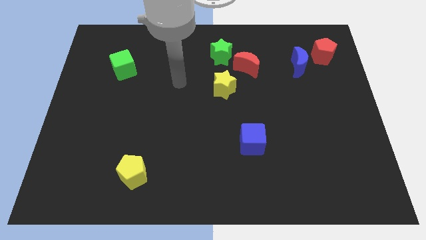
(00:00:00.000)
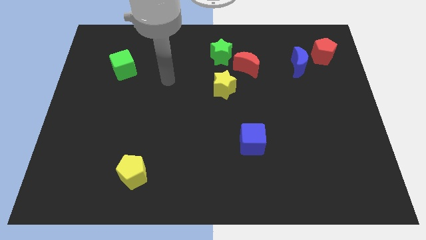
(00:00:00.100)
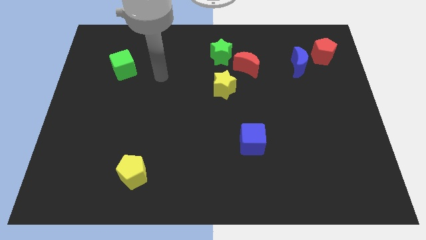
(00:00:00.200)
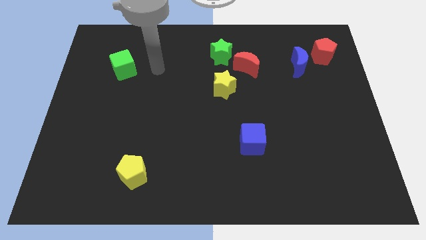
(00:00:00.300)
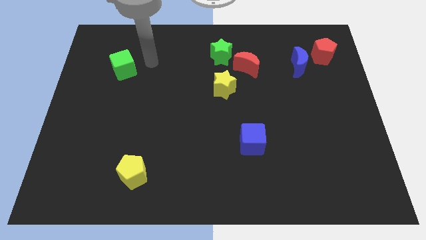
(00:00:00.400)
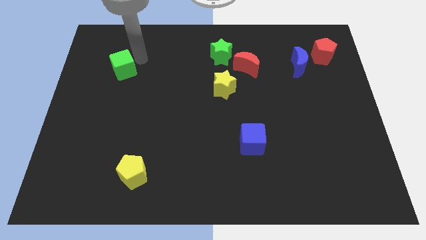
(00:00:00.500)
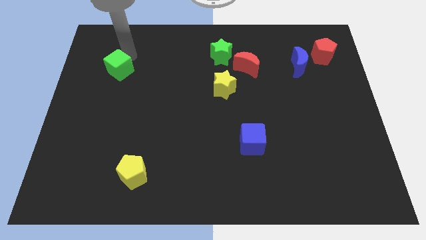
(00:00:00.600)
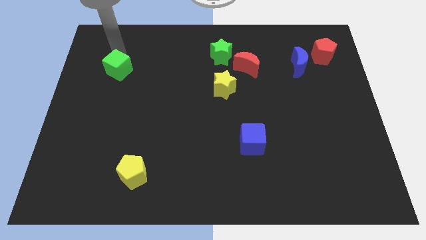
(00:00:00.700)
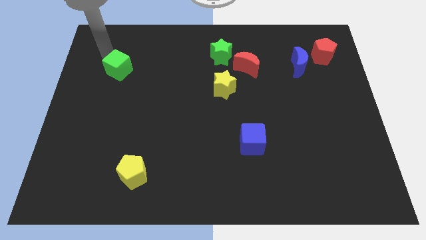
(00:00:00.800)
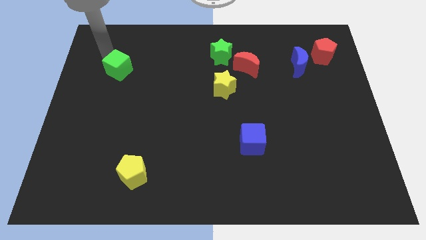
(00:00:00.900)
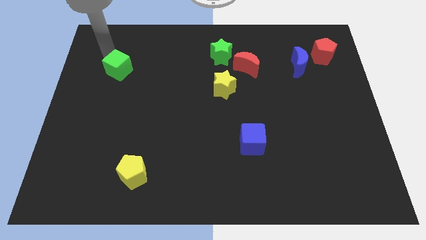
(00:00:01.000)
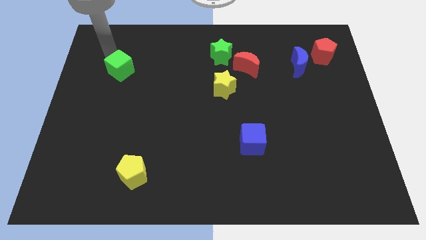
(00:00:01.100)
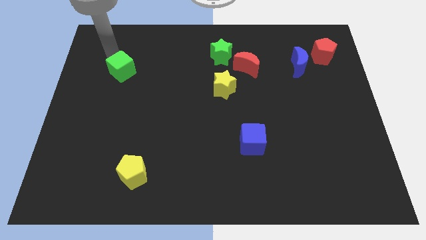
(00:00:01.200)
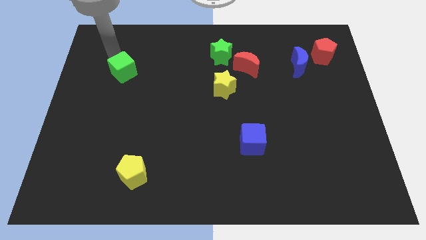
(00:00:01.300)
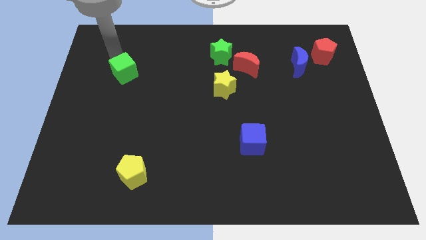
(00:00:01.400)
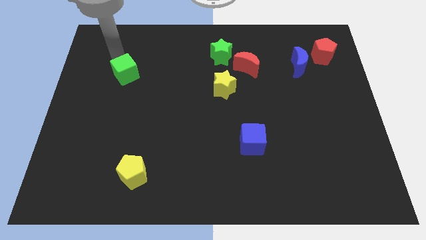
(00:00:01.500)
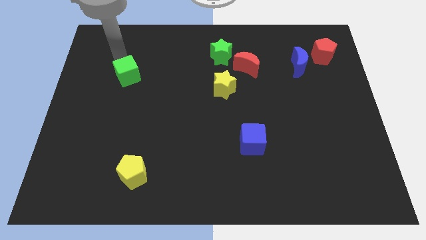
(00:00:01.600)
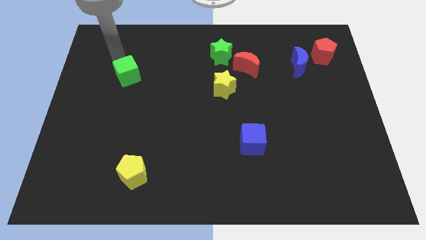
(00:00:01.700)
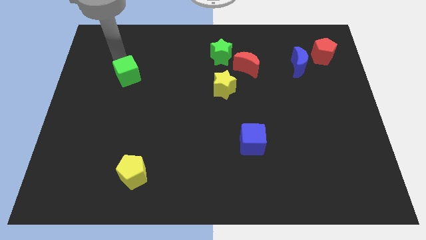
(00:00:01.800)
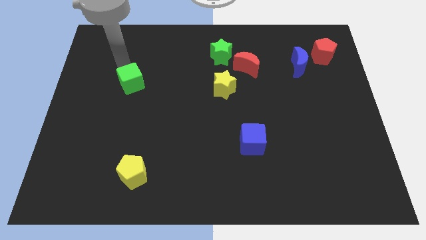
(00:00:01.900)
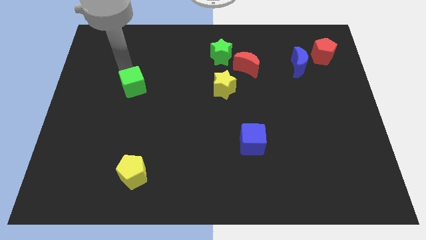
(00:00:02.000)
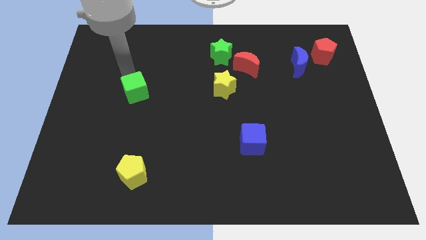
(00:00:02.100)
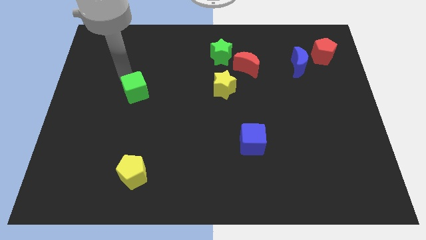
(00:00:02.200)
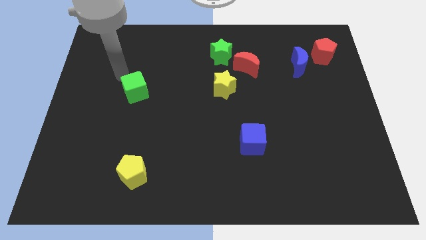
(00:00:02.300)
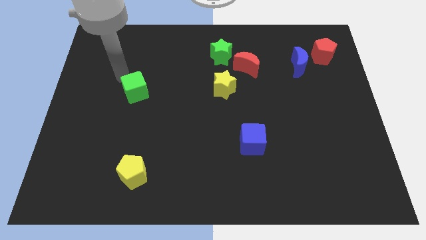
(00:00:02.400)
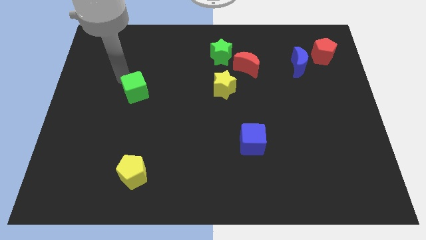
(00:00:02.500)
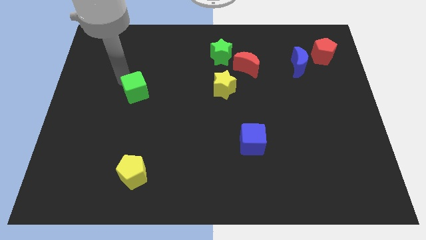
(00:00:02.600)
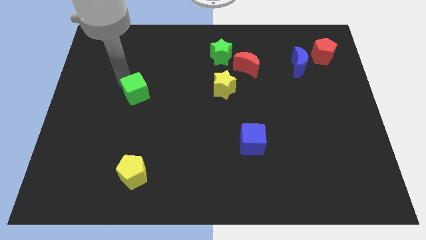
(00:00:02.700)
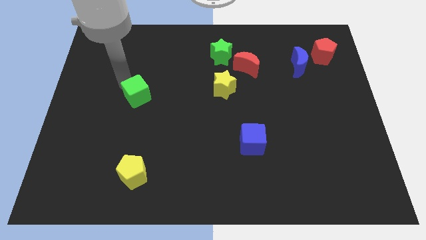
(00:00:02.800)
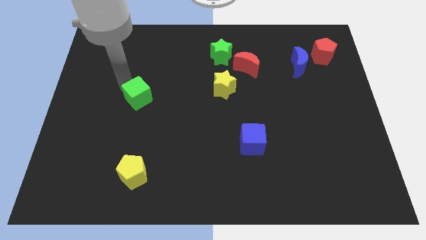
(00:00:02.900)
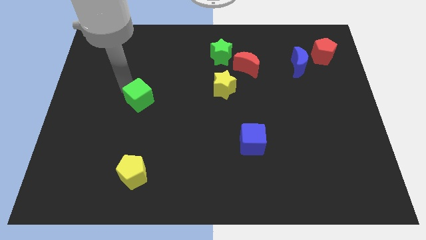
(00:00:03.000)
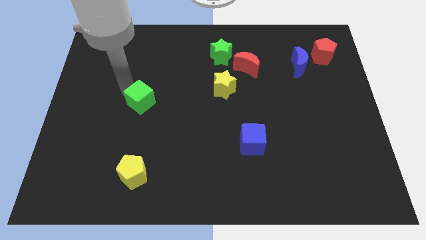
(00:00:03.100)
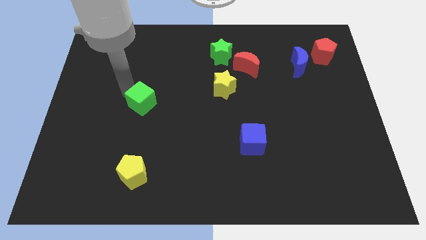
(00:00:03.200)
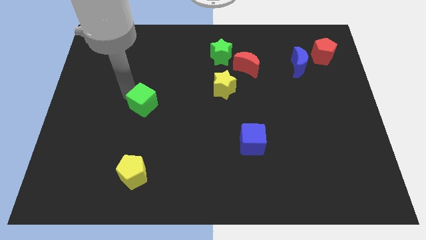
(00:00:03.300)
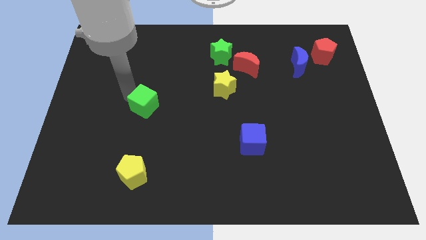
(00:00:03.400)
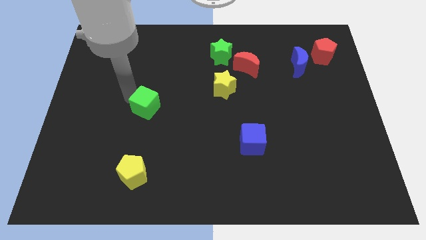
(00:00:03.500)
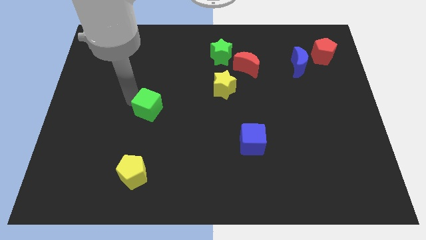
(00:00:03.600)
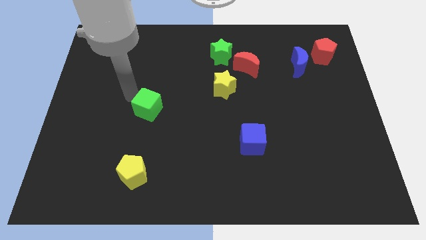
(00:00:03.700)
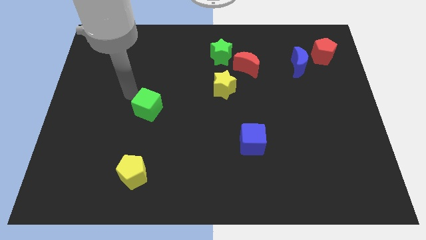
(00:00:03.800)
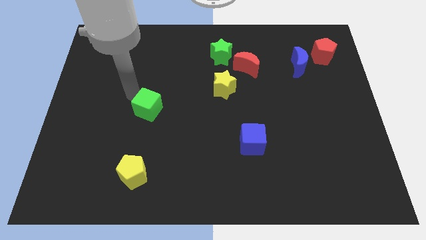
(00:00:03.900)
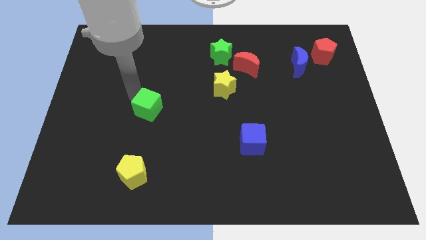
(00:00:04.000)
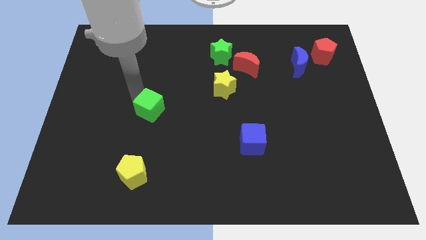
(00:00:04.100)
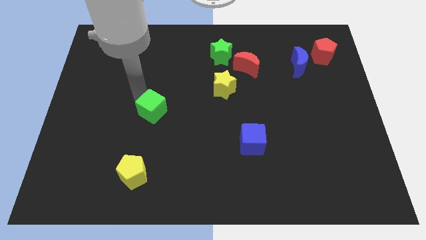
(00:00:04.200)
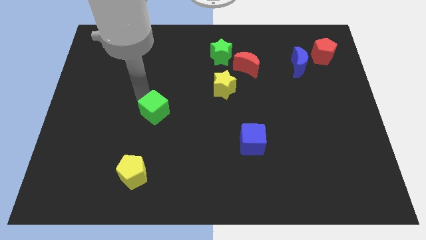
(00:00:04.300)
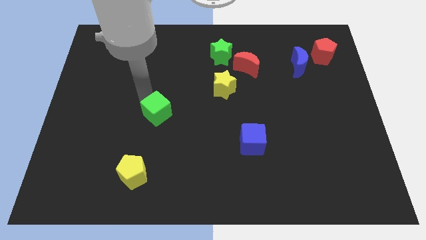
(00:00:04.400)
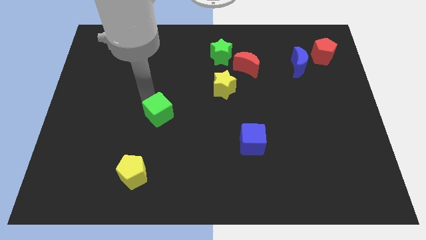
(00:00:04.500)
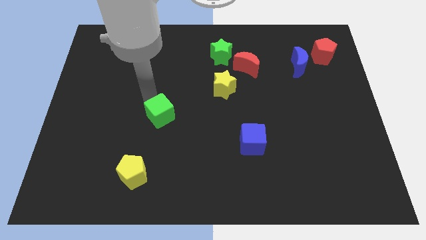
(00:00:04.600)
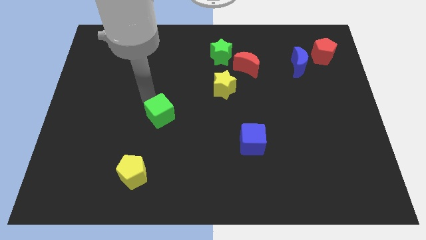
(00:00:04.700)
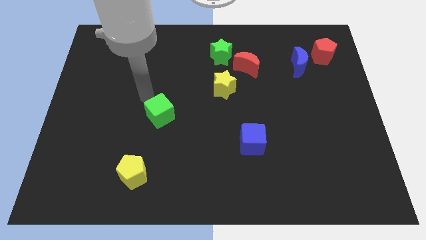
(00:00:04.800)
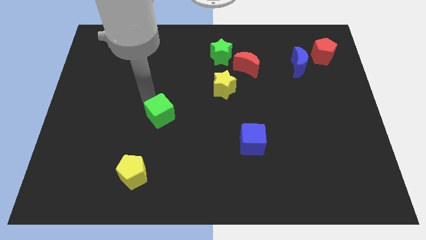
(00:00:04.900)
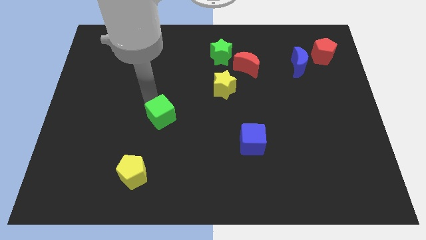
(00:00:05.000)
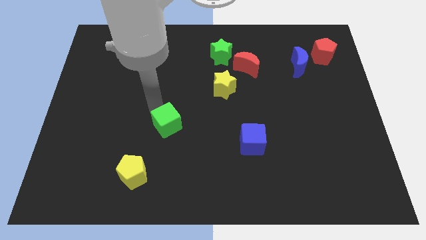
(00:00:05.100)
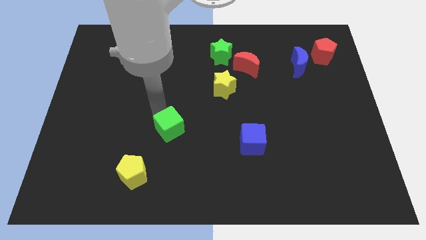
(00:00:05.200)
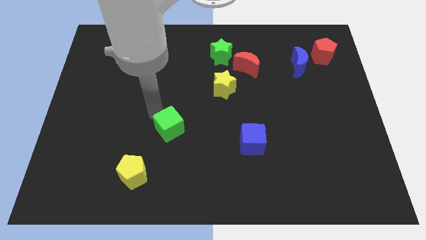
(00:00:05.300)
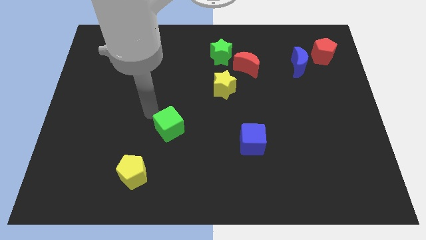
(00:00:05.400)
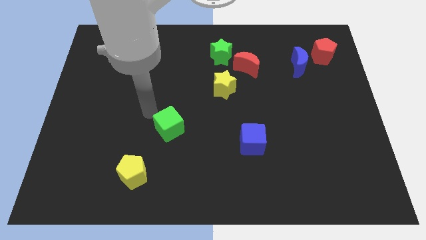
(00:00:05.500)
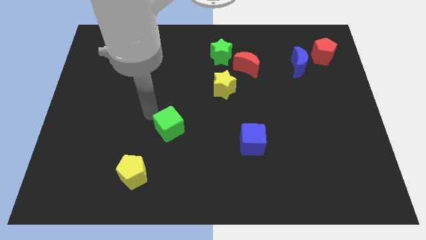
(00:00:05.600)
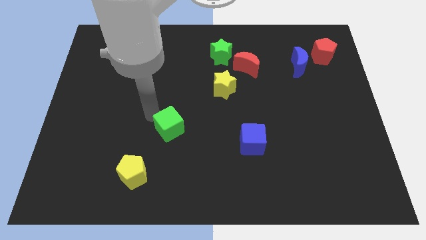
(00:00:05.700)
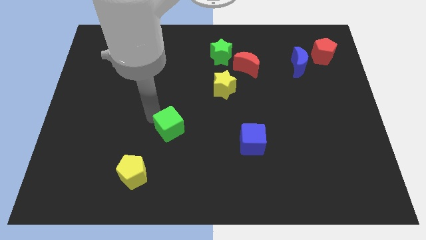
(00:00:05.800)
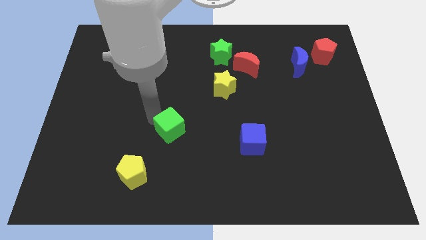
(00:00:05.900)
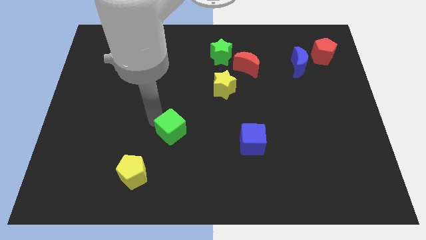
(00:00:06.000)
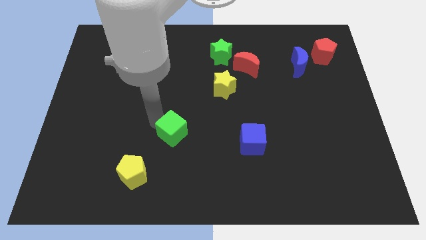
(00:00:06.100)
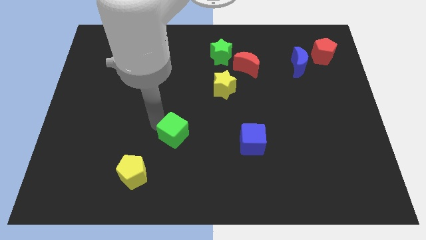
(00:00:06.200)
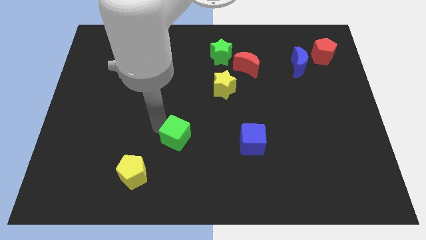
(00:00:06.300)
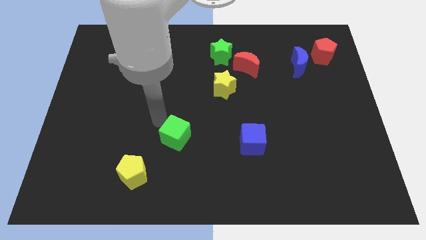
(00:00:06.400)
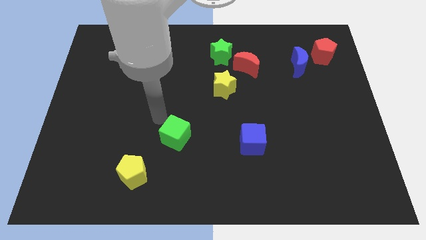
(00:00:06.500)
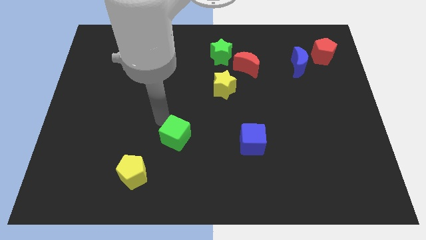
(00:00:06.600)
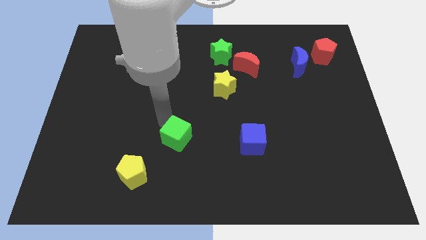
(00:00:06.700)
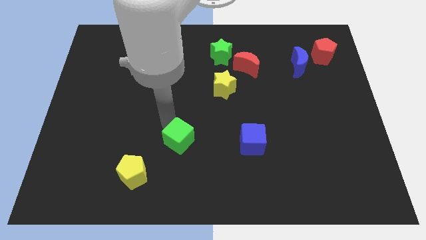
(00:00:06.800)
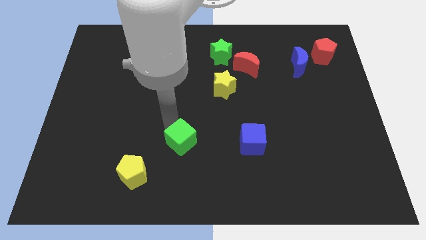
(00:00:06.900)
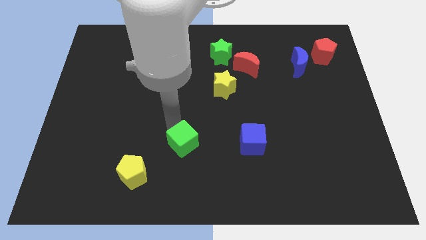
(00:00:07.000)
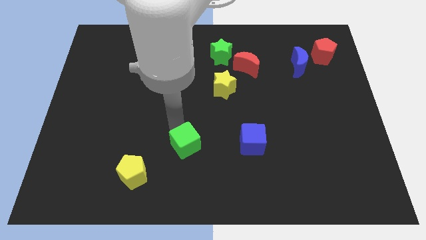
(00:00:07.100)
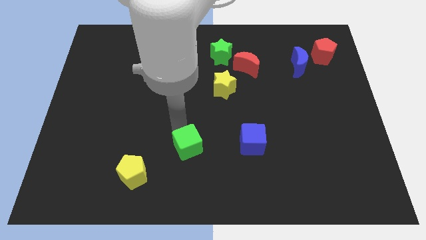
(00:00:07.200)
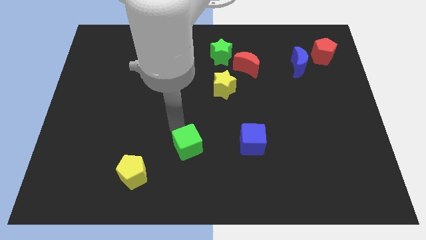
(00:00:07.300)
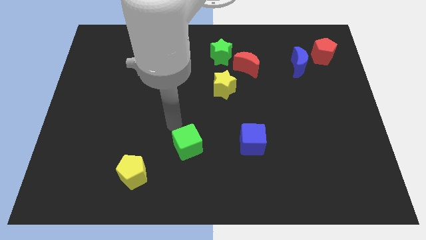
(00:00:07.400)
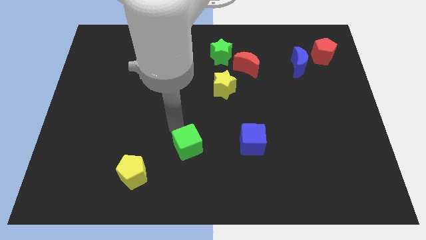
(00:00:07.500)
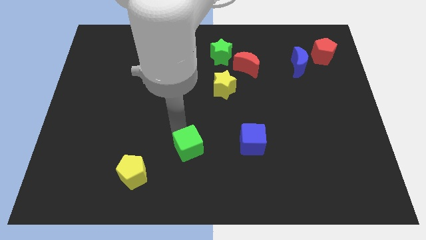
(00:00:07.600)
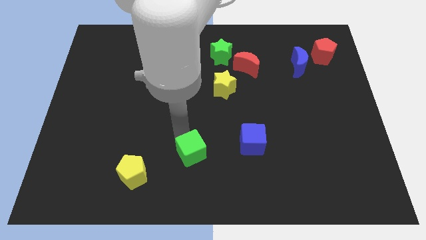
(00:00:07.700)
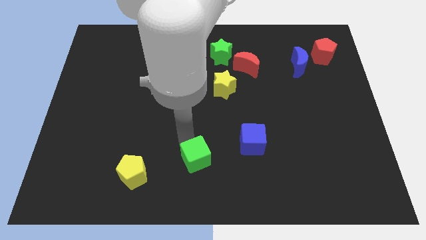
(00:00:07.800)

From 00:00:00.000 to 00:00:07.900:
slide the green cube to the bottom
